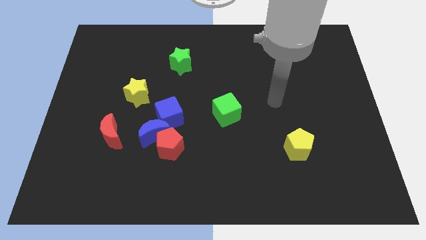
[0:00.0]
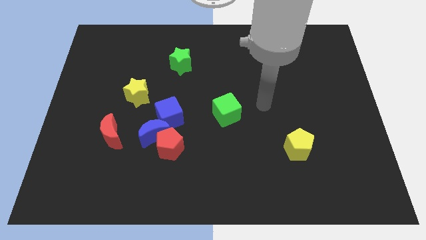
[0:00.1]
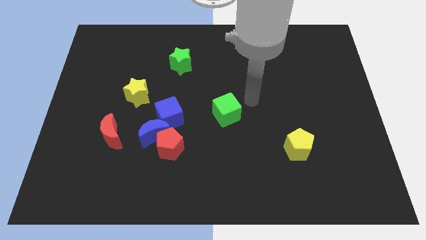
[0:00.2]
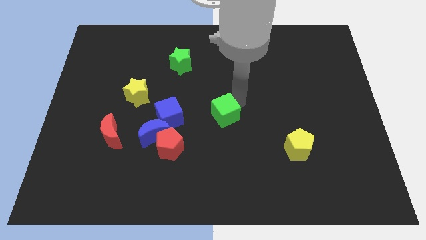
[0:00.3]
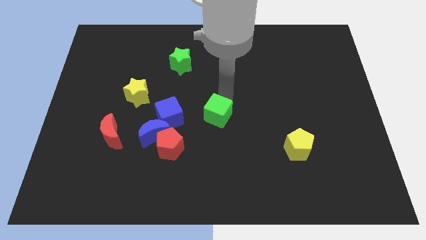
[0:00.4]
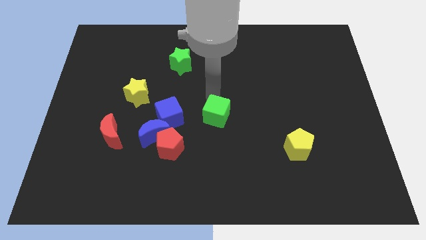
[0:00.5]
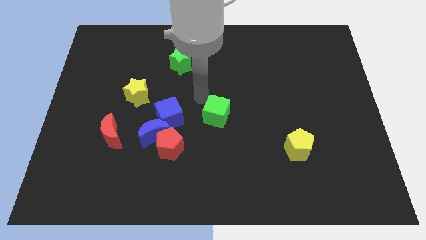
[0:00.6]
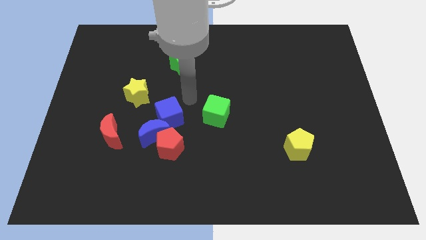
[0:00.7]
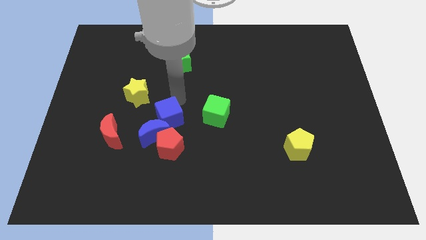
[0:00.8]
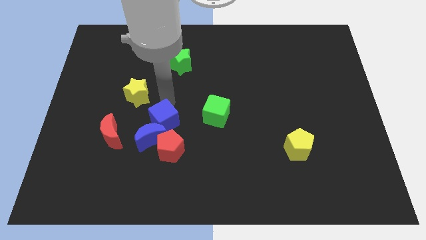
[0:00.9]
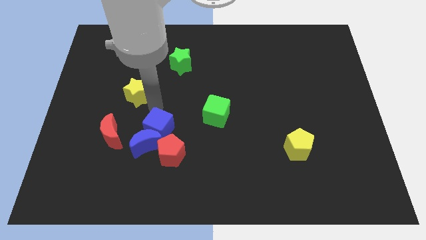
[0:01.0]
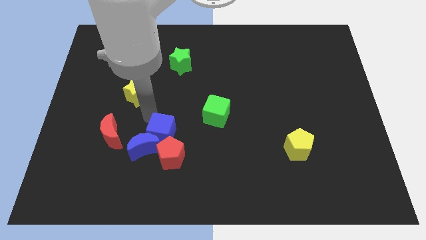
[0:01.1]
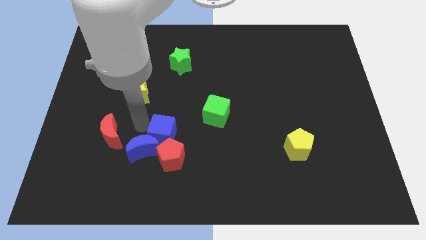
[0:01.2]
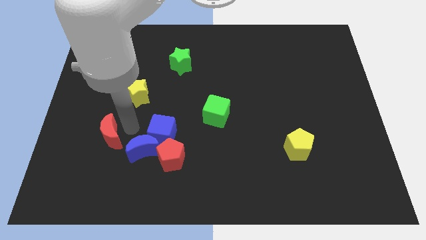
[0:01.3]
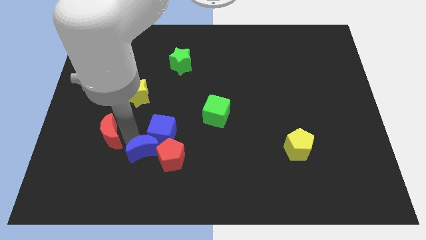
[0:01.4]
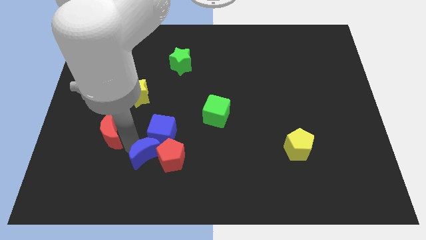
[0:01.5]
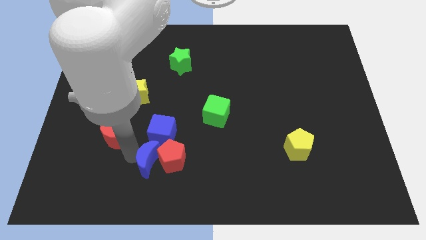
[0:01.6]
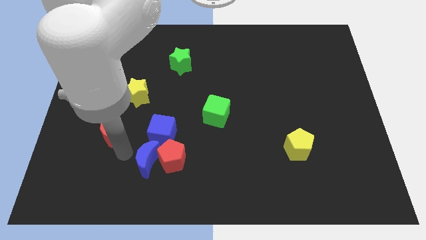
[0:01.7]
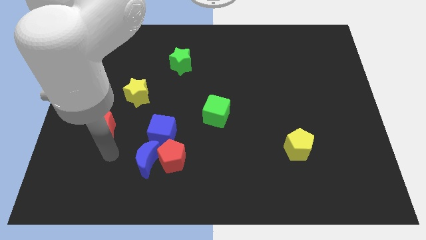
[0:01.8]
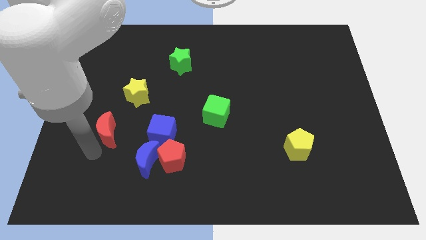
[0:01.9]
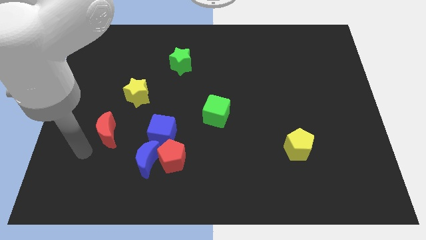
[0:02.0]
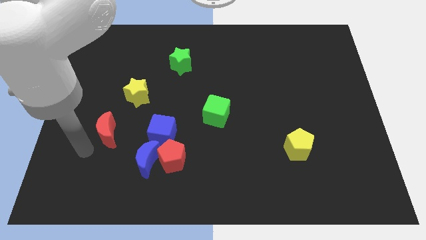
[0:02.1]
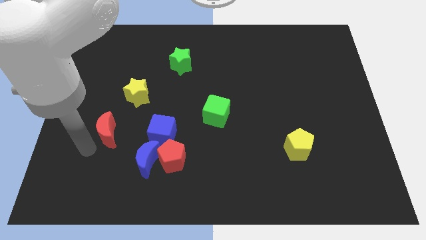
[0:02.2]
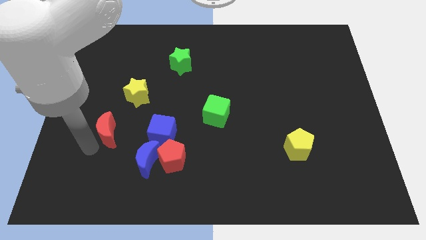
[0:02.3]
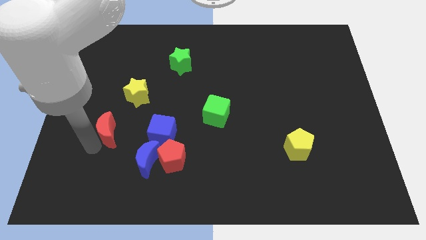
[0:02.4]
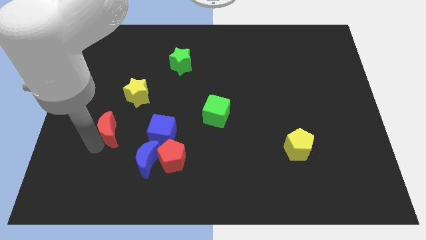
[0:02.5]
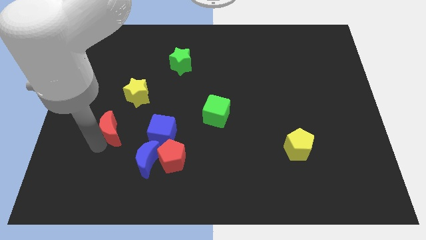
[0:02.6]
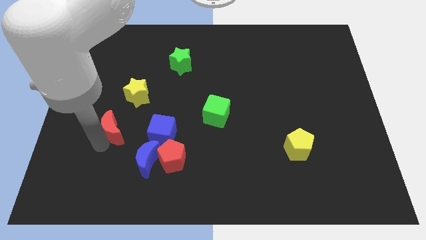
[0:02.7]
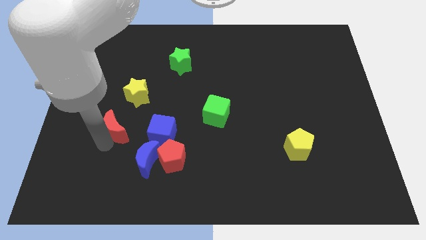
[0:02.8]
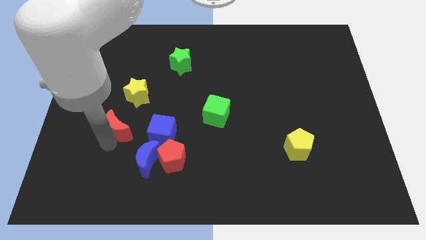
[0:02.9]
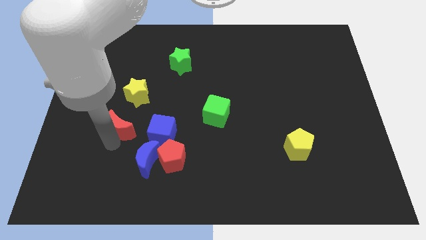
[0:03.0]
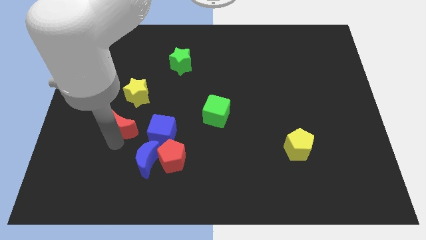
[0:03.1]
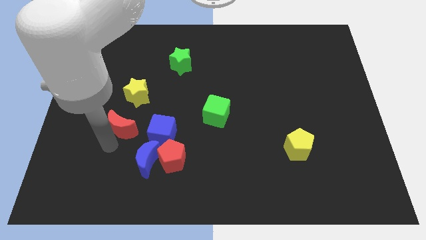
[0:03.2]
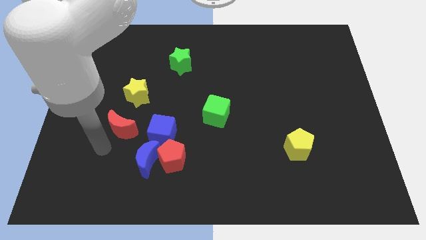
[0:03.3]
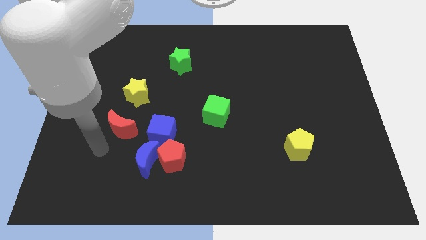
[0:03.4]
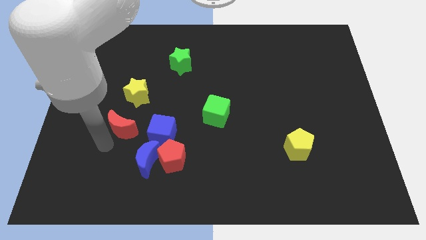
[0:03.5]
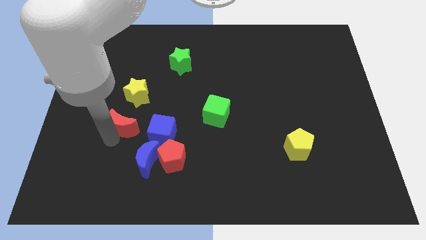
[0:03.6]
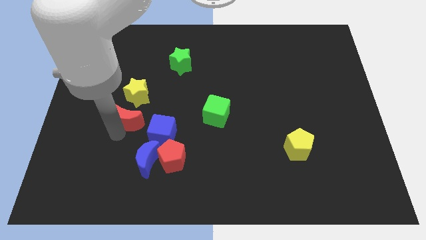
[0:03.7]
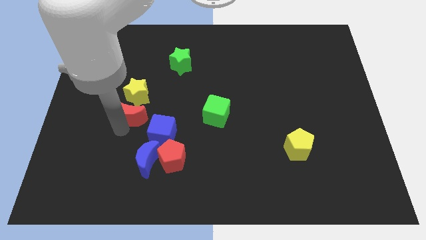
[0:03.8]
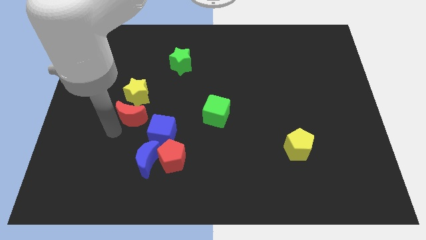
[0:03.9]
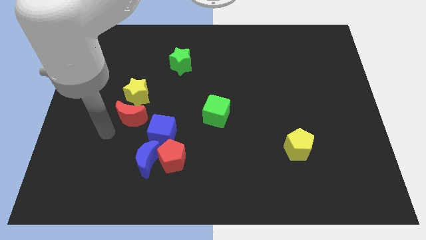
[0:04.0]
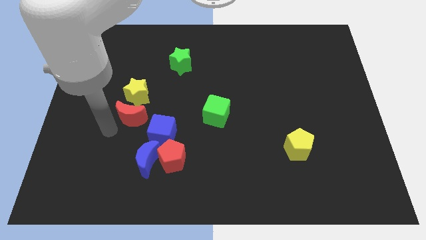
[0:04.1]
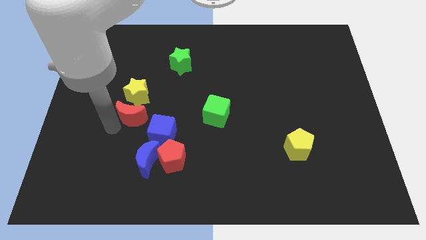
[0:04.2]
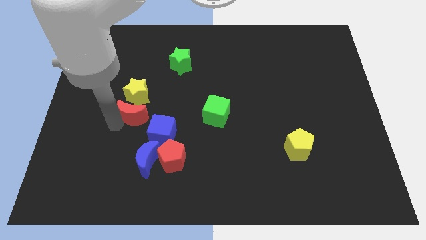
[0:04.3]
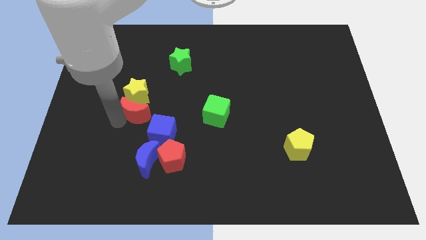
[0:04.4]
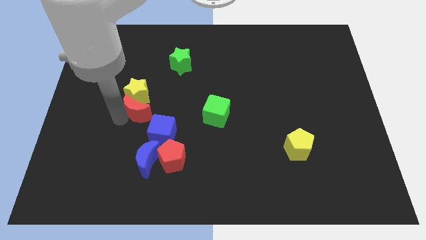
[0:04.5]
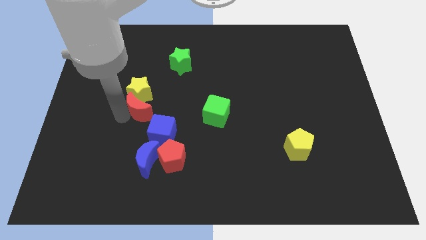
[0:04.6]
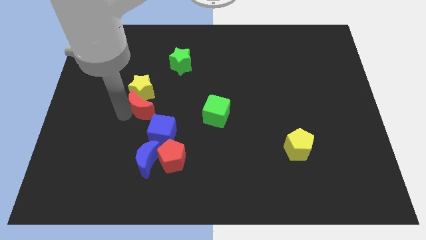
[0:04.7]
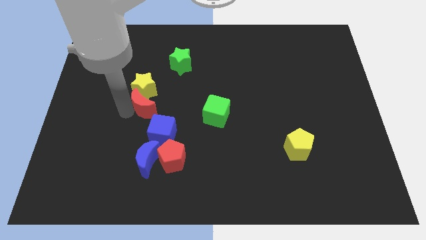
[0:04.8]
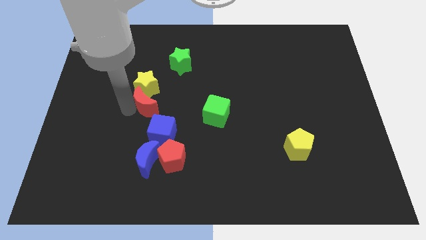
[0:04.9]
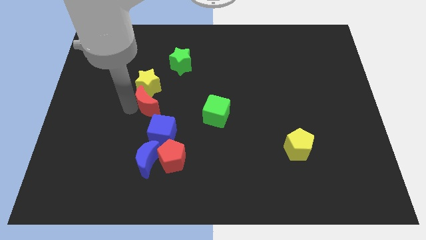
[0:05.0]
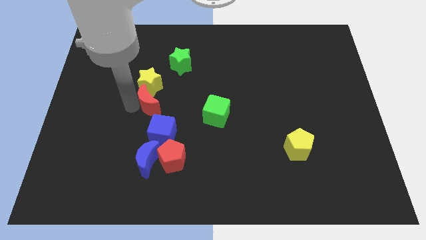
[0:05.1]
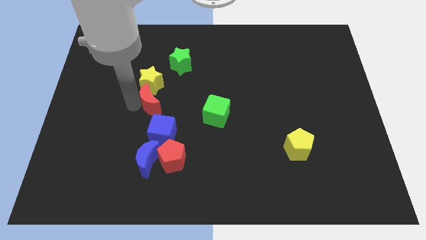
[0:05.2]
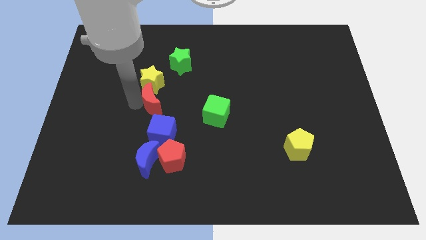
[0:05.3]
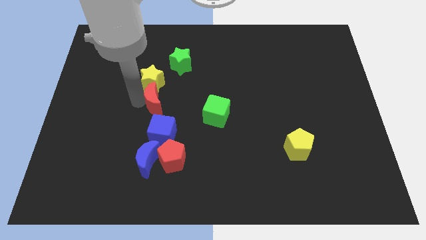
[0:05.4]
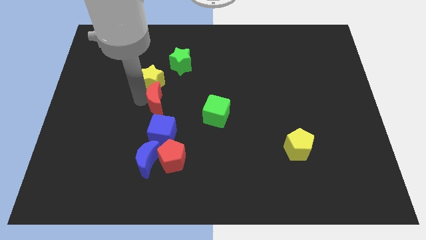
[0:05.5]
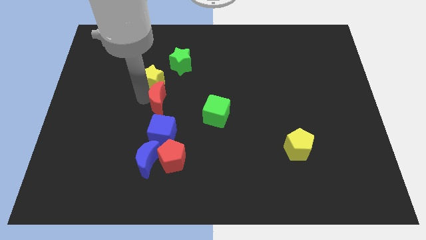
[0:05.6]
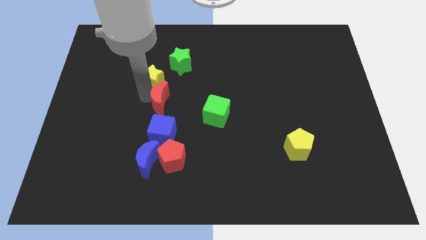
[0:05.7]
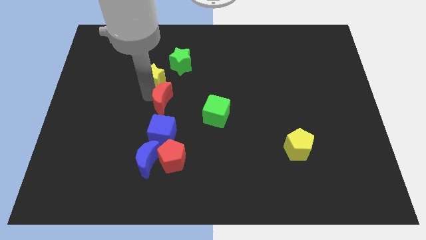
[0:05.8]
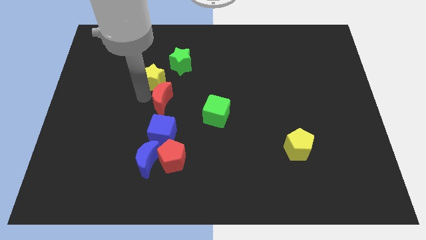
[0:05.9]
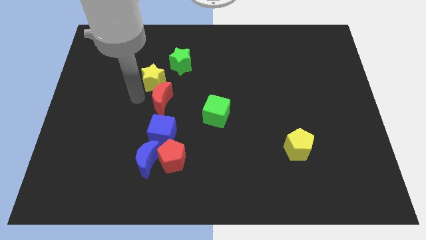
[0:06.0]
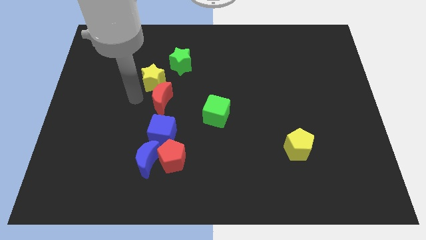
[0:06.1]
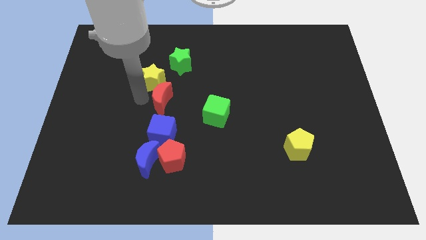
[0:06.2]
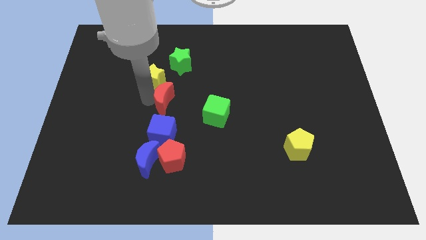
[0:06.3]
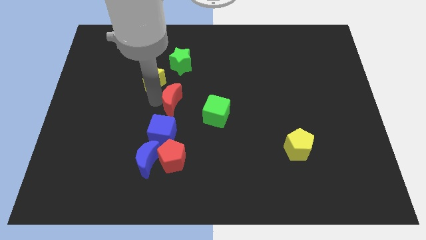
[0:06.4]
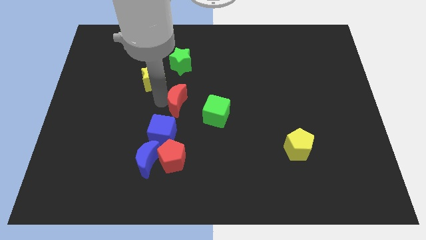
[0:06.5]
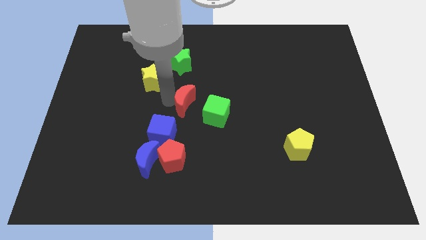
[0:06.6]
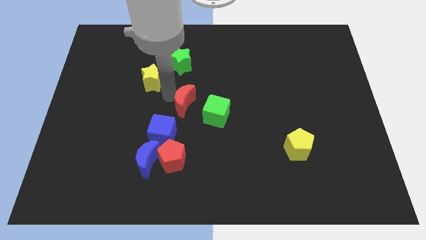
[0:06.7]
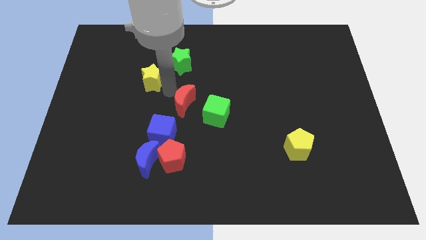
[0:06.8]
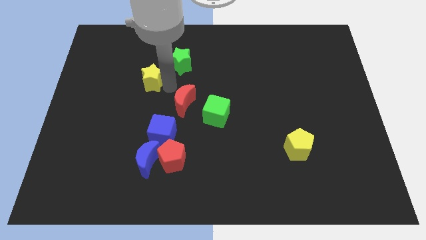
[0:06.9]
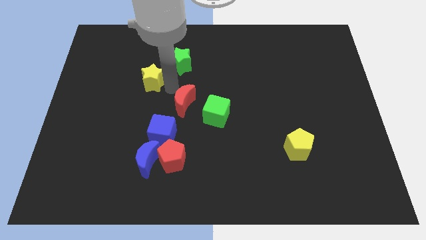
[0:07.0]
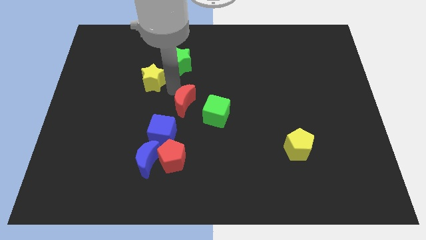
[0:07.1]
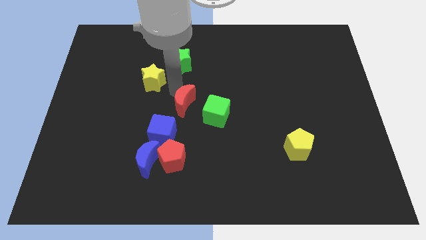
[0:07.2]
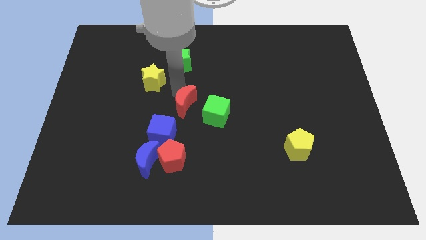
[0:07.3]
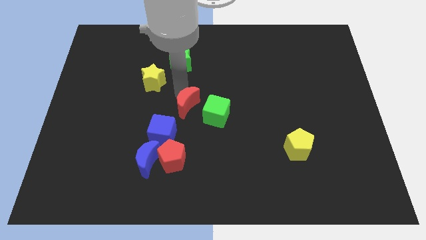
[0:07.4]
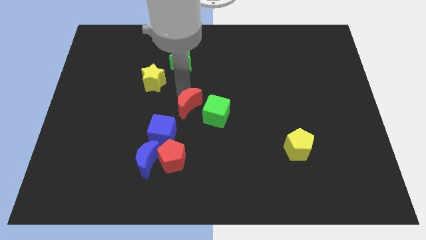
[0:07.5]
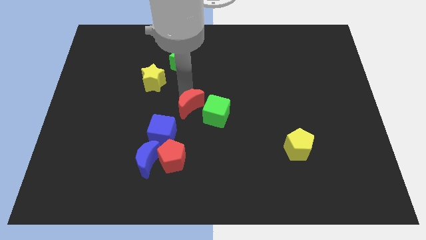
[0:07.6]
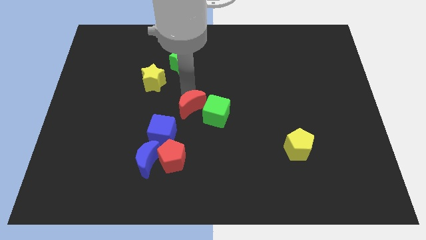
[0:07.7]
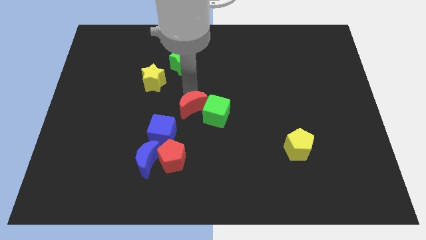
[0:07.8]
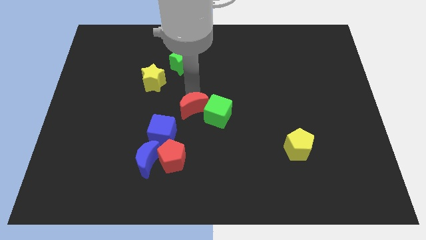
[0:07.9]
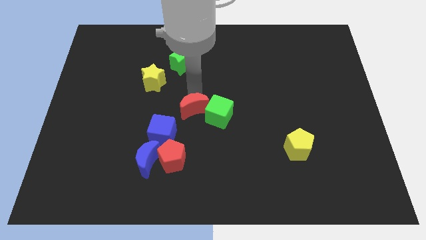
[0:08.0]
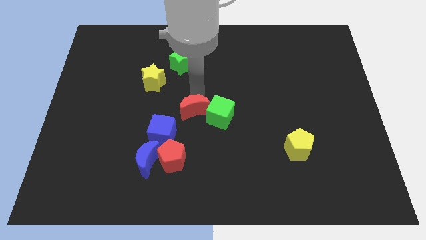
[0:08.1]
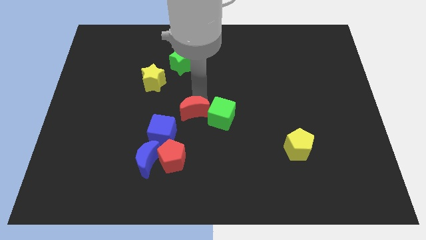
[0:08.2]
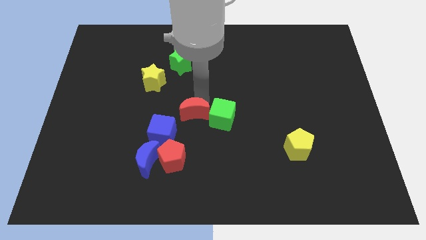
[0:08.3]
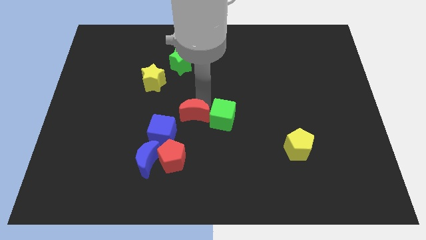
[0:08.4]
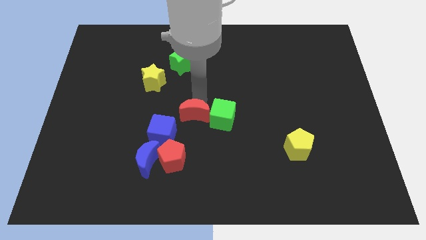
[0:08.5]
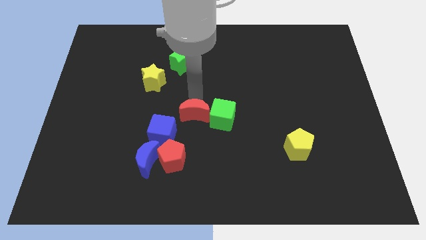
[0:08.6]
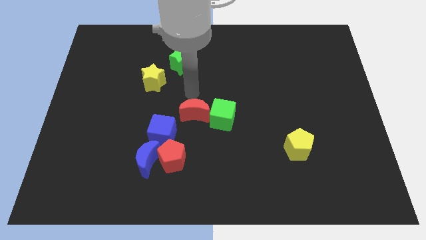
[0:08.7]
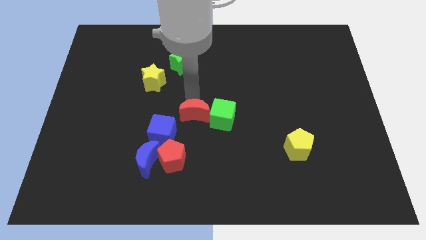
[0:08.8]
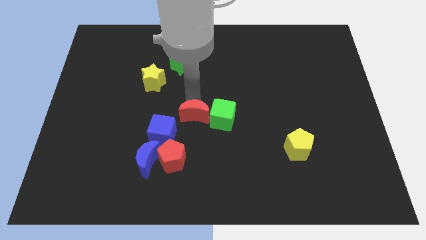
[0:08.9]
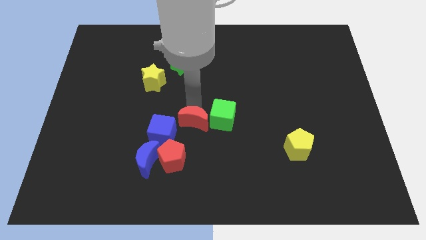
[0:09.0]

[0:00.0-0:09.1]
slide the red moon to the bottom left of the green cube
